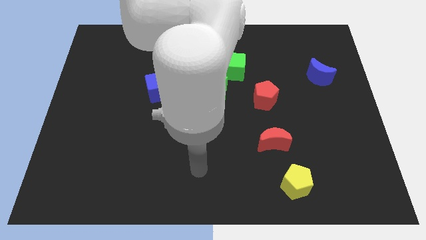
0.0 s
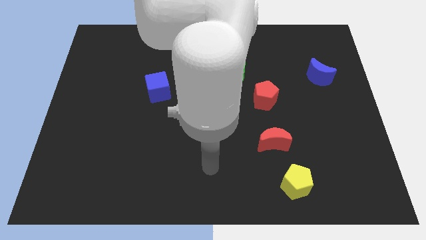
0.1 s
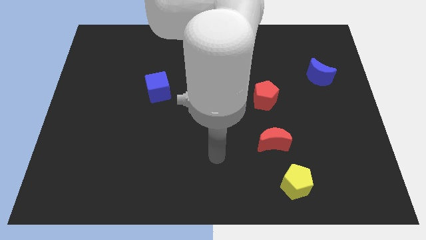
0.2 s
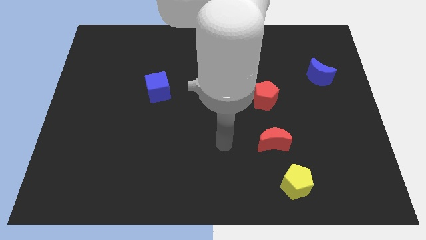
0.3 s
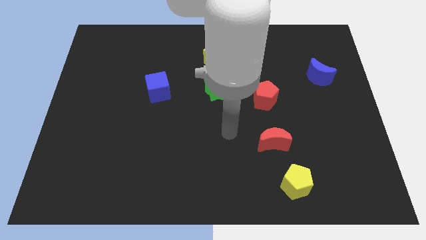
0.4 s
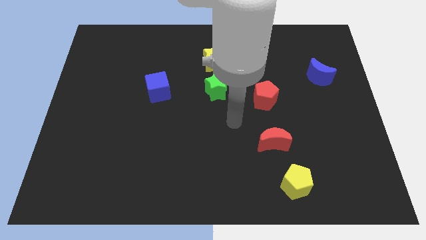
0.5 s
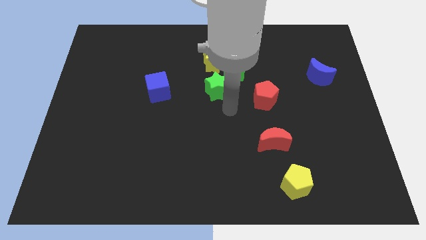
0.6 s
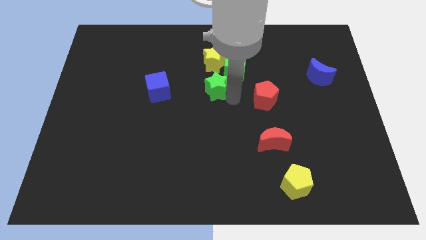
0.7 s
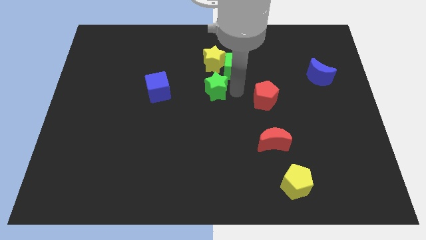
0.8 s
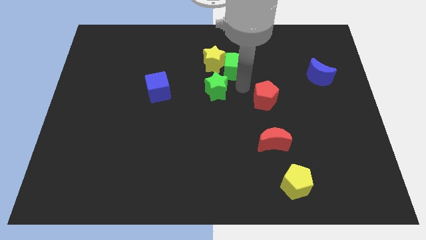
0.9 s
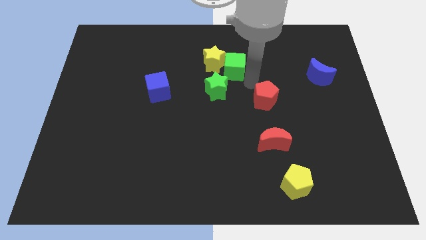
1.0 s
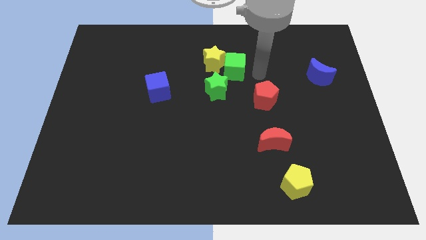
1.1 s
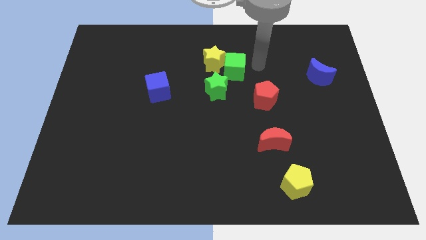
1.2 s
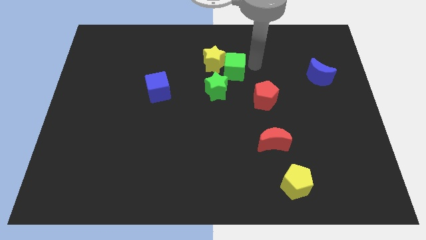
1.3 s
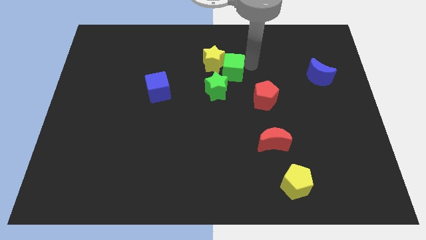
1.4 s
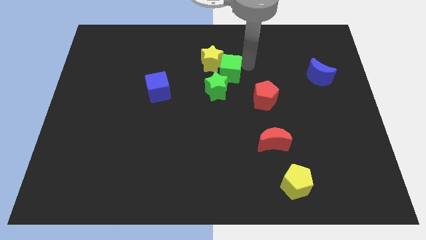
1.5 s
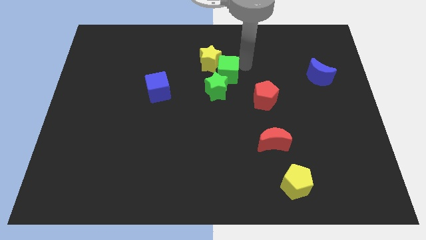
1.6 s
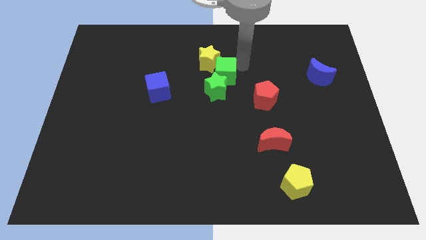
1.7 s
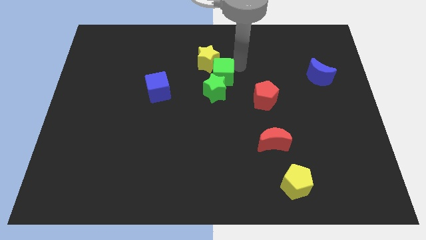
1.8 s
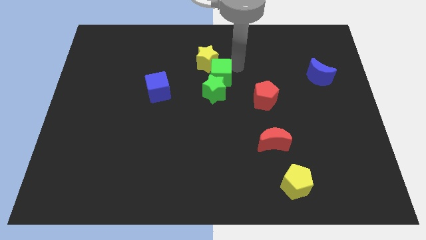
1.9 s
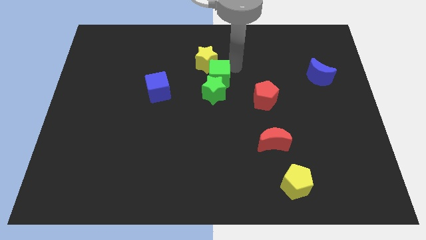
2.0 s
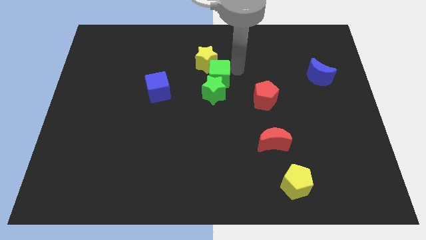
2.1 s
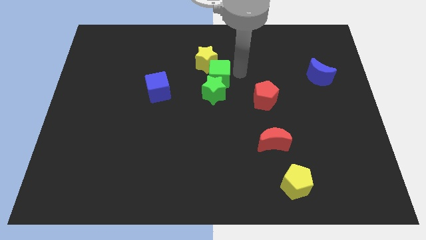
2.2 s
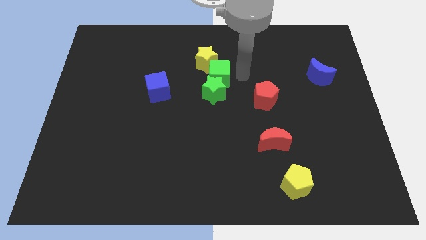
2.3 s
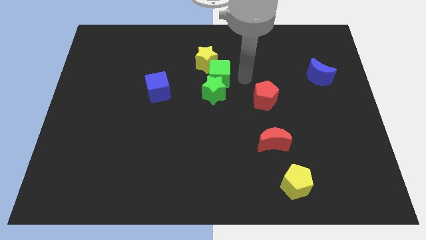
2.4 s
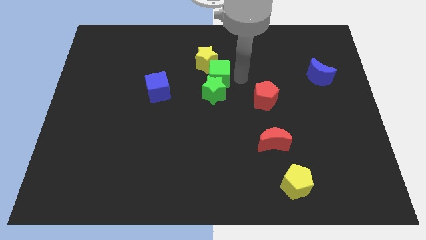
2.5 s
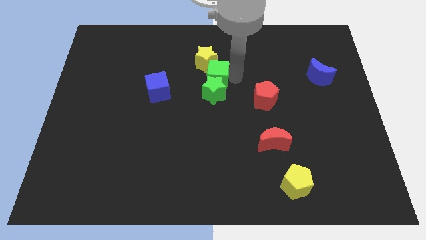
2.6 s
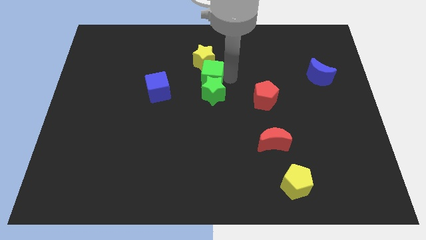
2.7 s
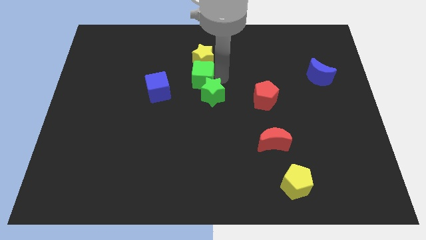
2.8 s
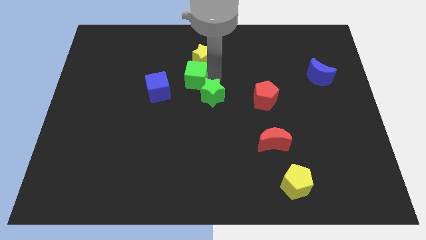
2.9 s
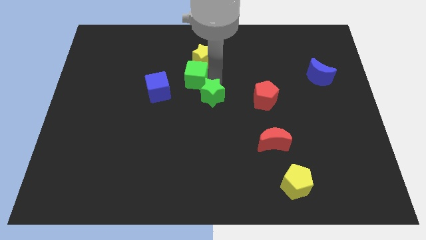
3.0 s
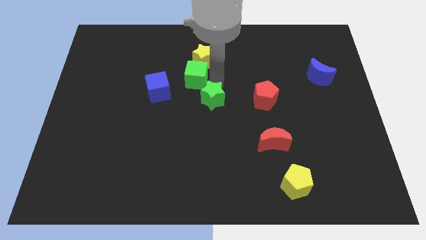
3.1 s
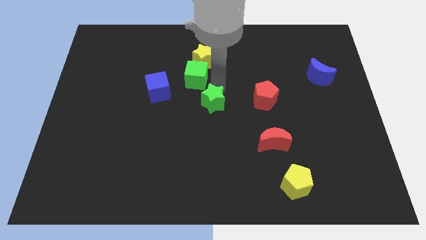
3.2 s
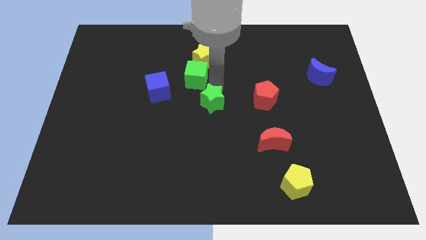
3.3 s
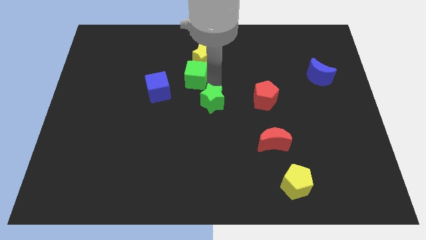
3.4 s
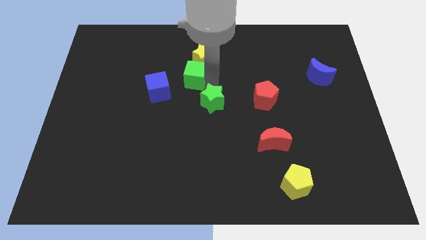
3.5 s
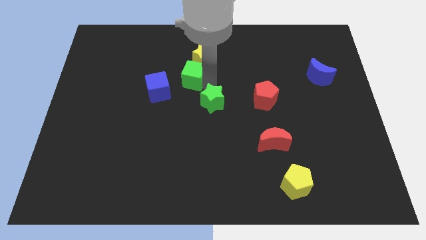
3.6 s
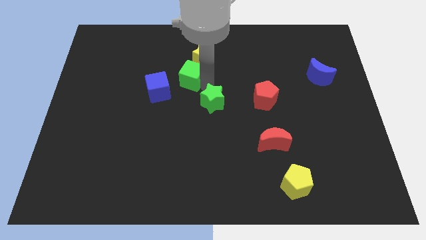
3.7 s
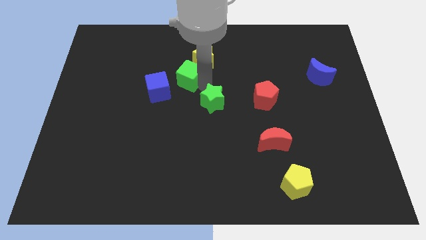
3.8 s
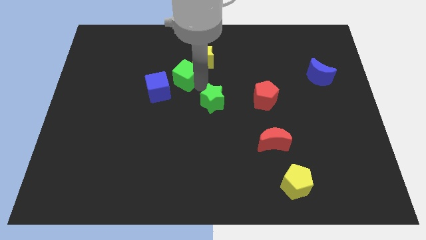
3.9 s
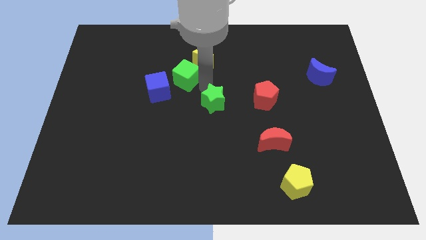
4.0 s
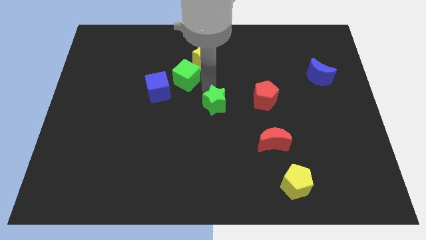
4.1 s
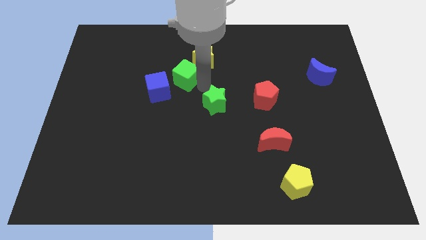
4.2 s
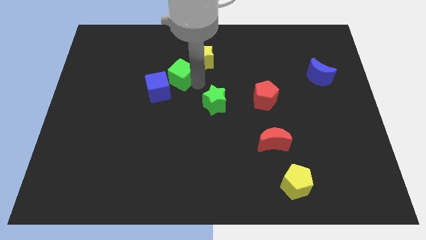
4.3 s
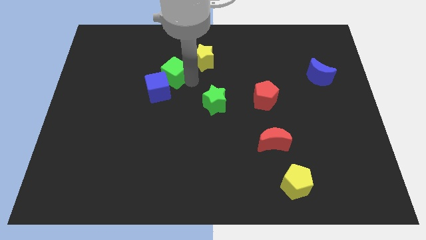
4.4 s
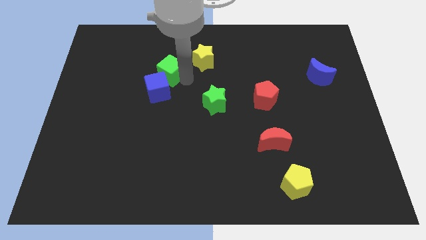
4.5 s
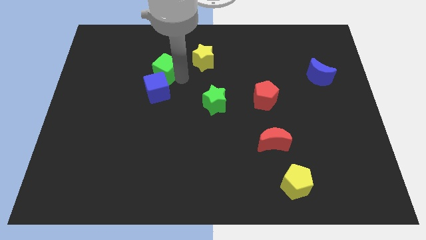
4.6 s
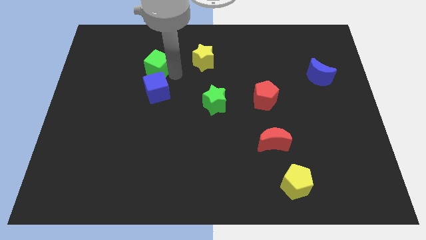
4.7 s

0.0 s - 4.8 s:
slide the green cube to the left

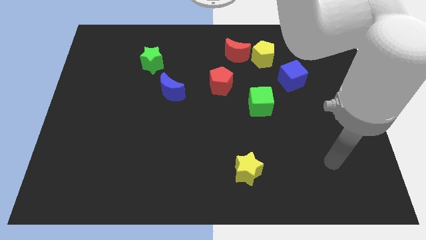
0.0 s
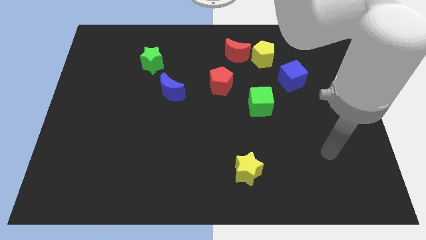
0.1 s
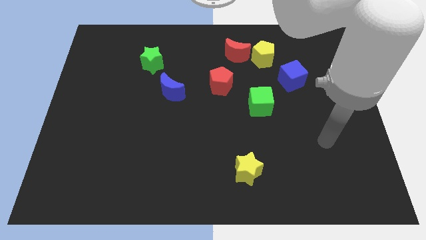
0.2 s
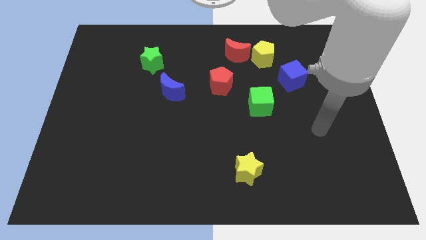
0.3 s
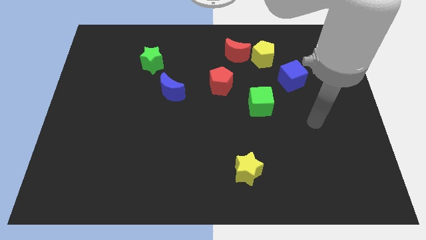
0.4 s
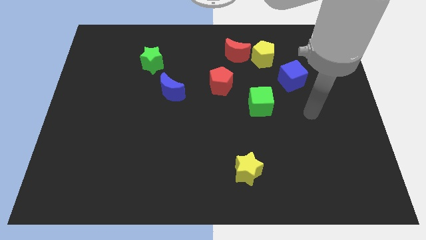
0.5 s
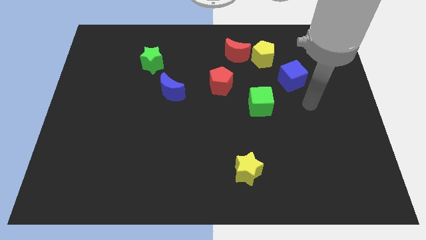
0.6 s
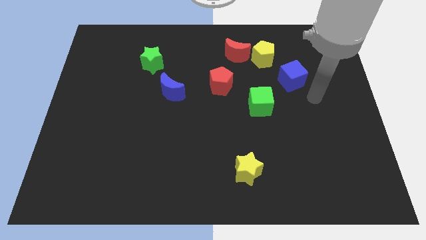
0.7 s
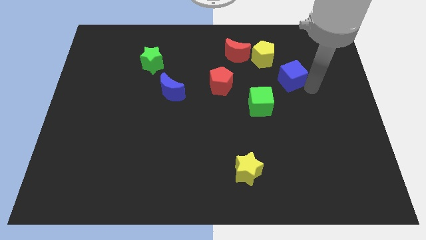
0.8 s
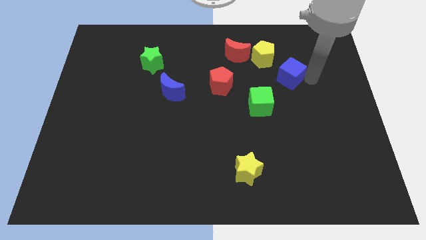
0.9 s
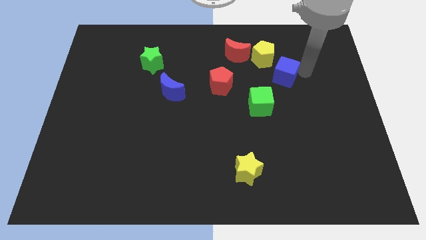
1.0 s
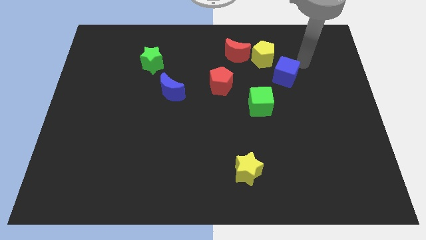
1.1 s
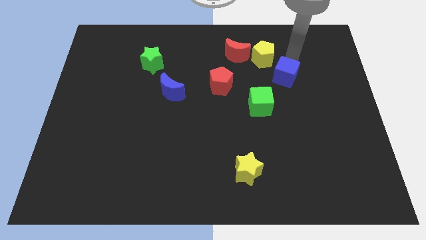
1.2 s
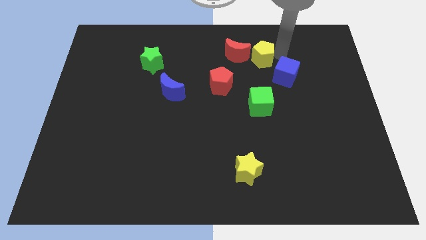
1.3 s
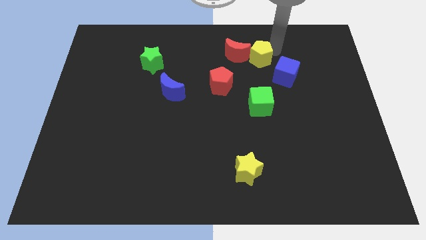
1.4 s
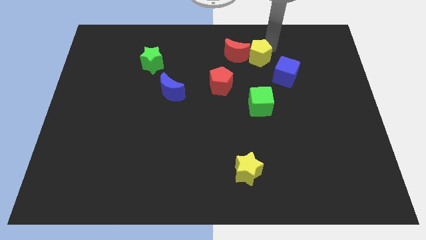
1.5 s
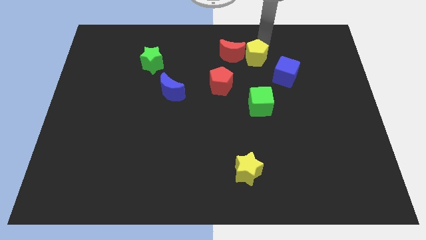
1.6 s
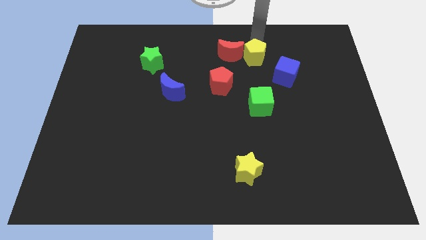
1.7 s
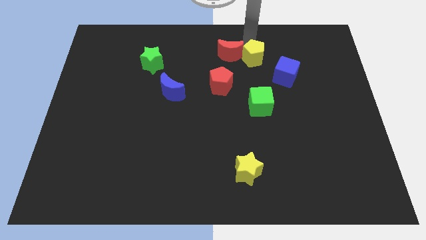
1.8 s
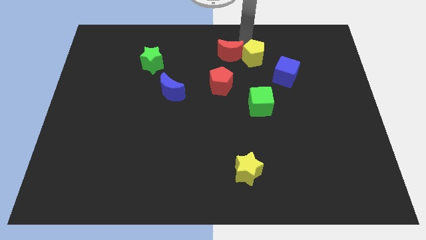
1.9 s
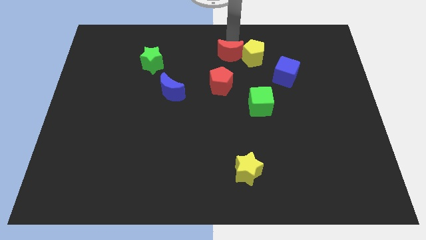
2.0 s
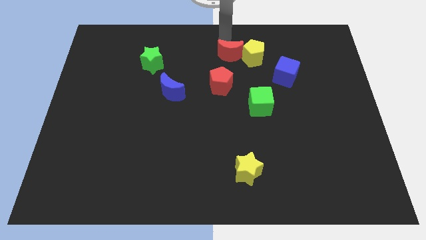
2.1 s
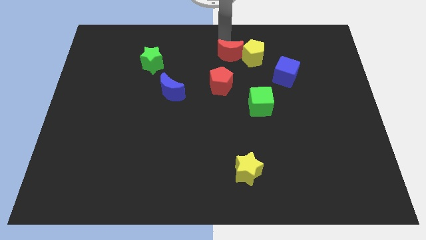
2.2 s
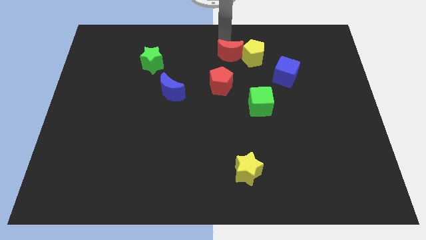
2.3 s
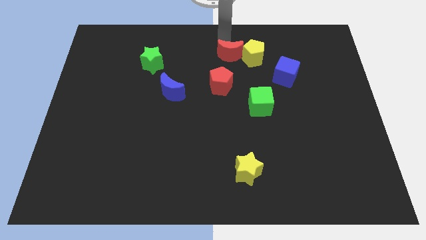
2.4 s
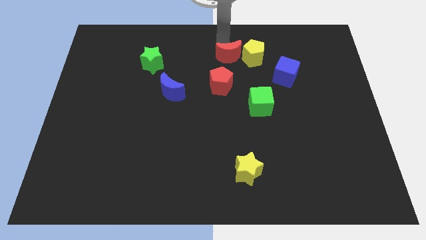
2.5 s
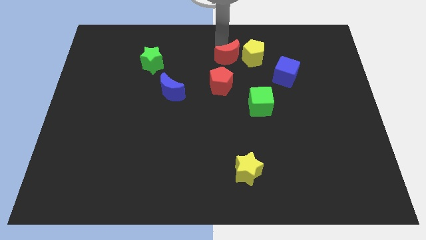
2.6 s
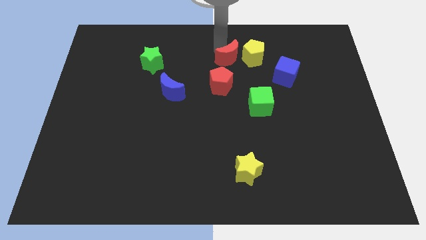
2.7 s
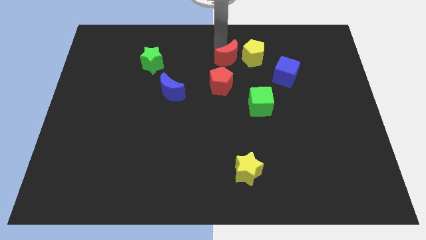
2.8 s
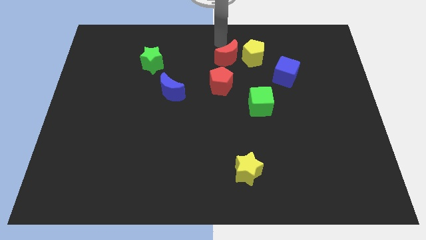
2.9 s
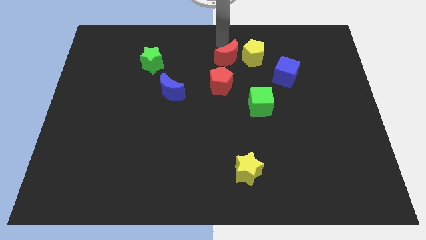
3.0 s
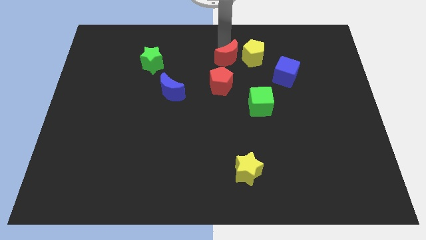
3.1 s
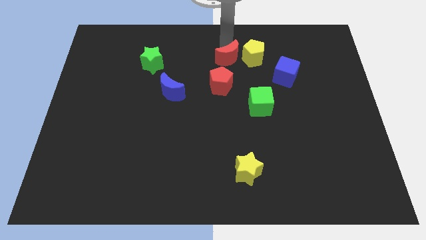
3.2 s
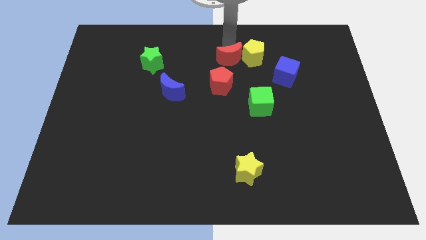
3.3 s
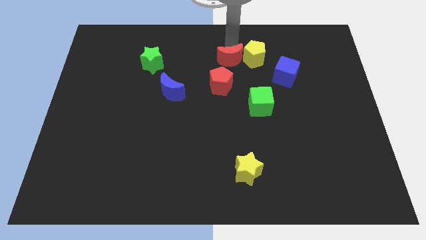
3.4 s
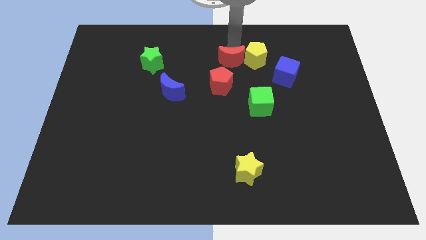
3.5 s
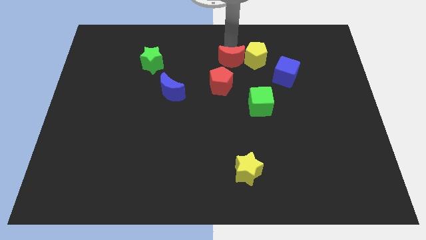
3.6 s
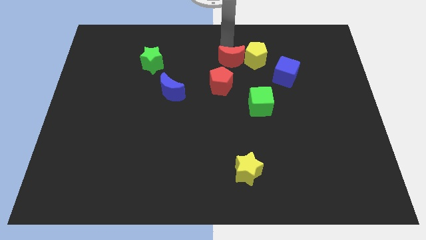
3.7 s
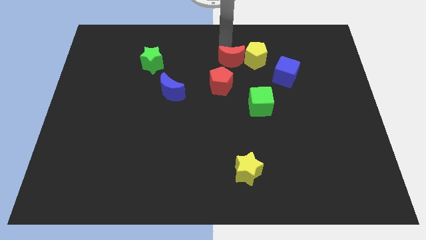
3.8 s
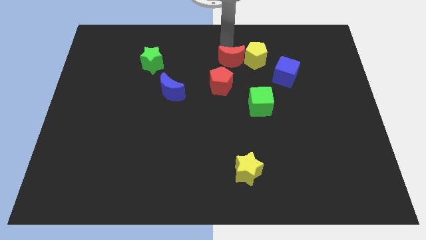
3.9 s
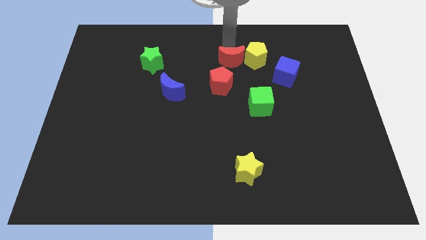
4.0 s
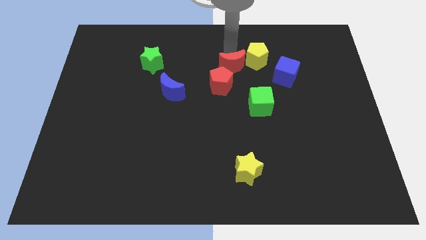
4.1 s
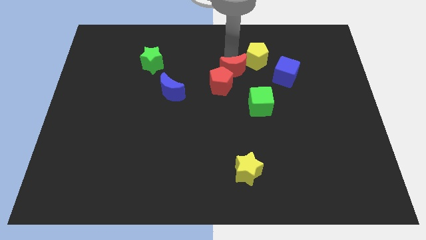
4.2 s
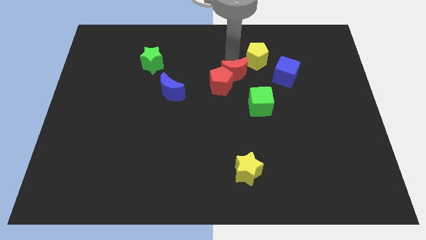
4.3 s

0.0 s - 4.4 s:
slide the red moon a little bit down
